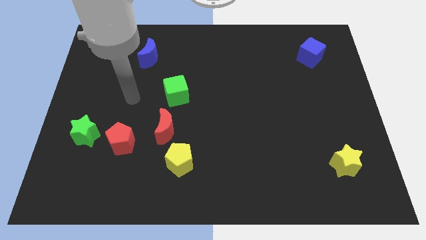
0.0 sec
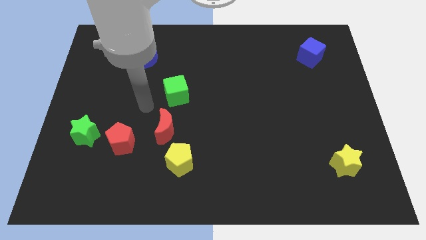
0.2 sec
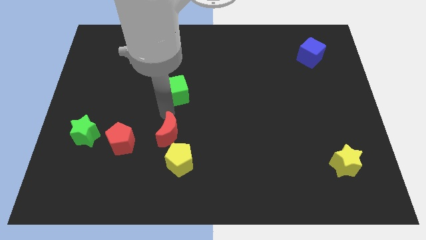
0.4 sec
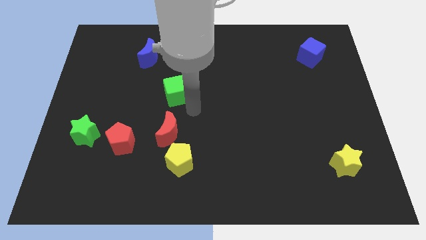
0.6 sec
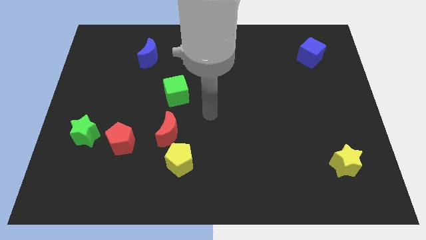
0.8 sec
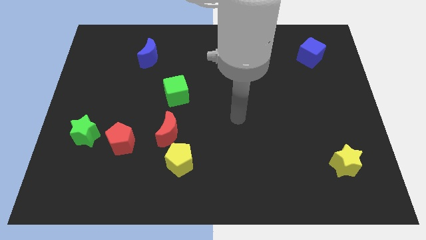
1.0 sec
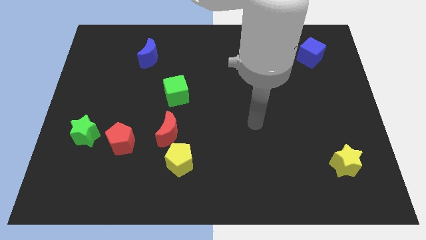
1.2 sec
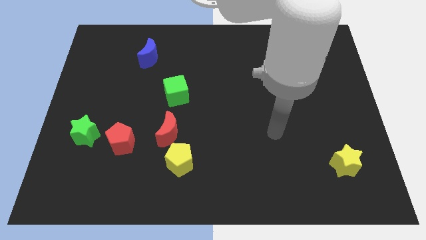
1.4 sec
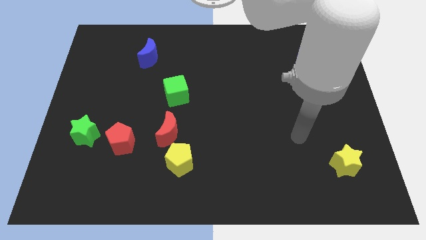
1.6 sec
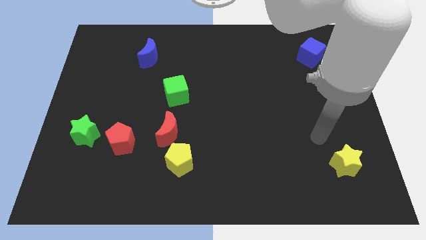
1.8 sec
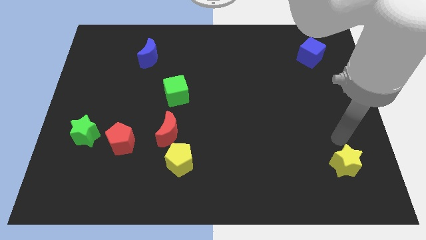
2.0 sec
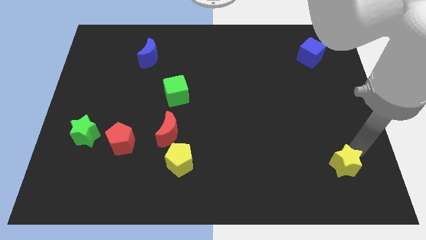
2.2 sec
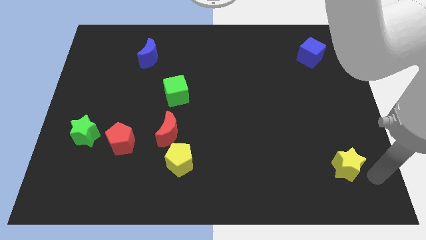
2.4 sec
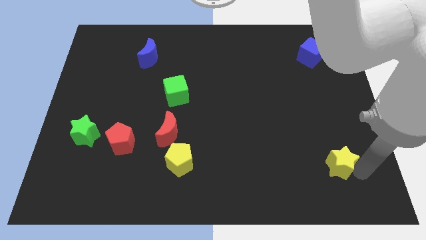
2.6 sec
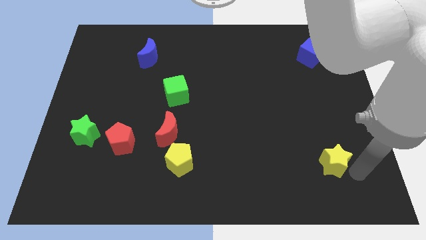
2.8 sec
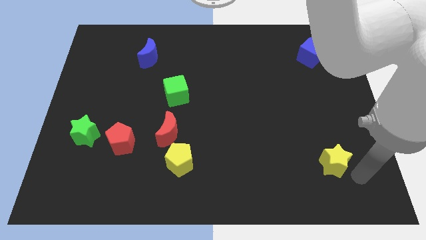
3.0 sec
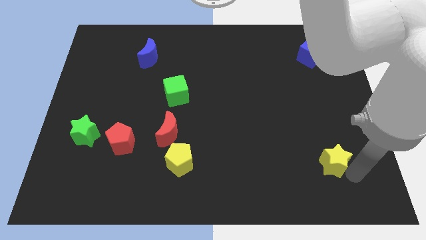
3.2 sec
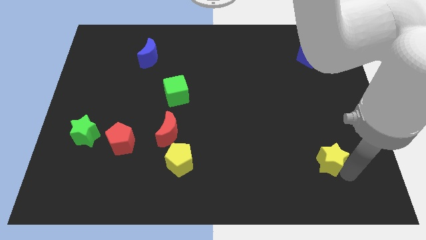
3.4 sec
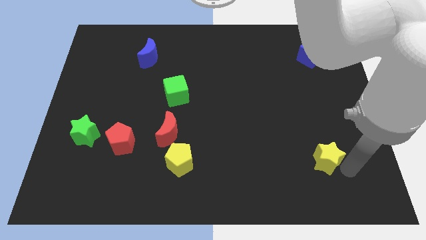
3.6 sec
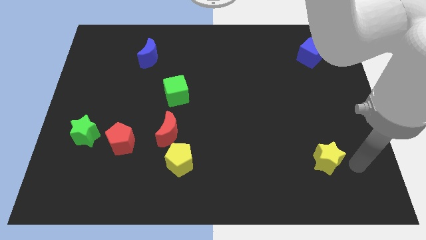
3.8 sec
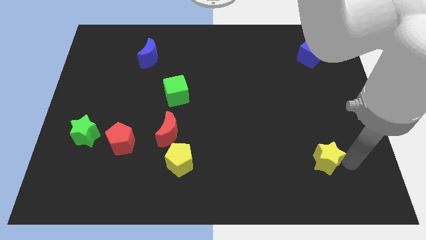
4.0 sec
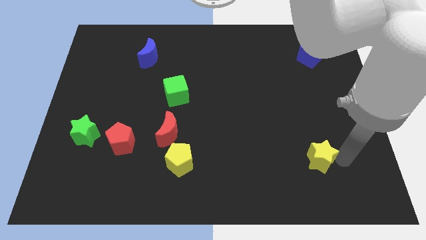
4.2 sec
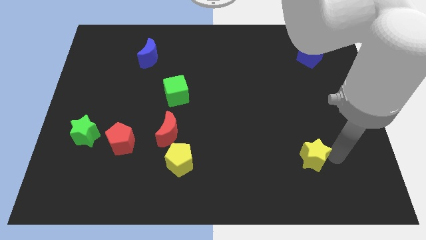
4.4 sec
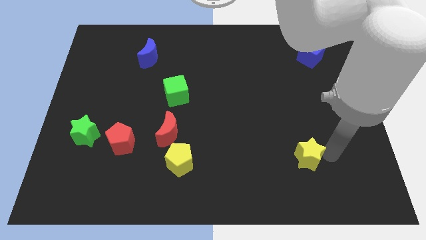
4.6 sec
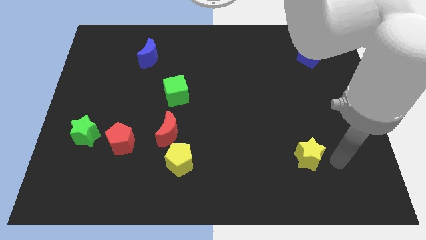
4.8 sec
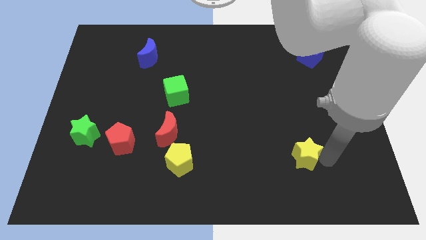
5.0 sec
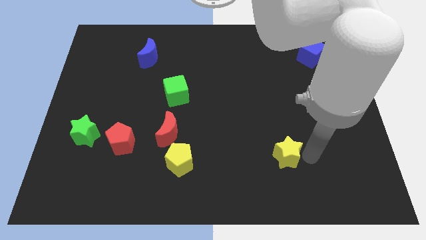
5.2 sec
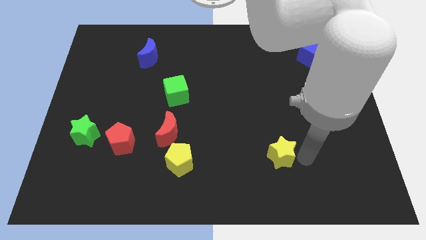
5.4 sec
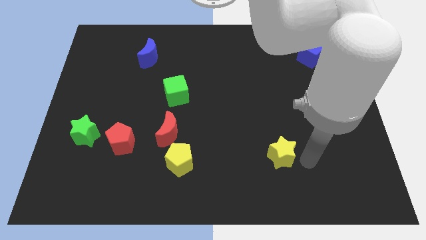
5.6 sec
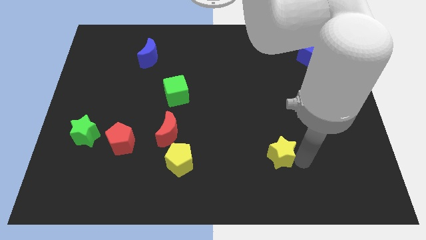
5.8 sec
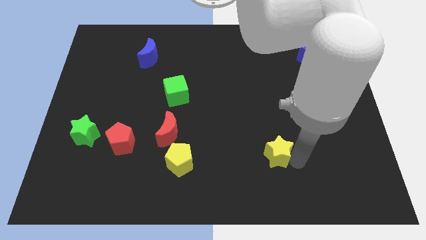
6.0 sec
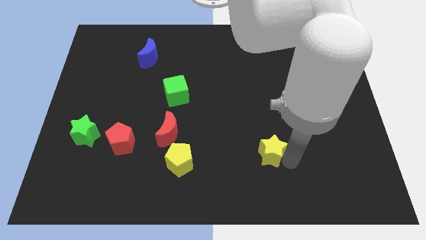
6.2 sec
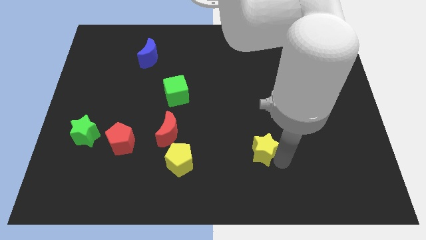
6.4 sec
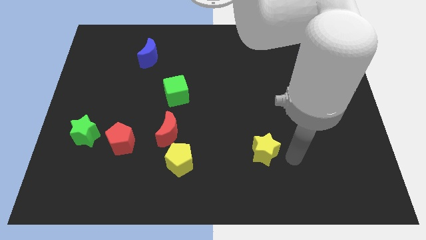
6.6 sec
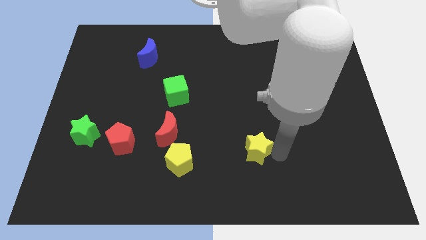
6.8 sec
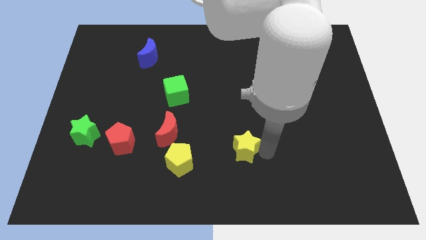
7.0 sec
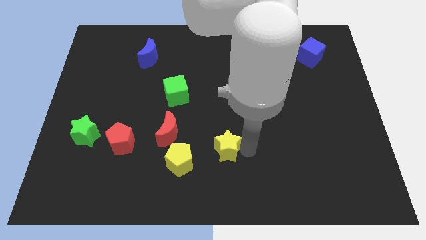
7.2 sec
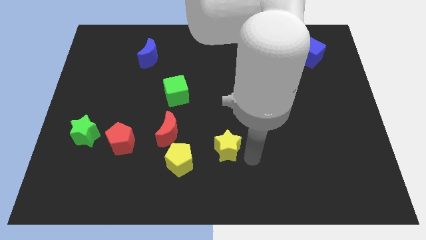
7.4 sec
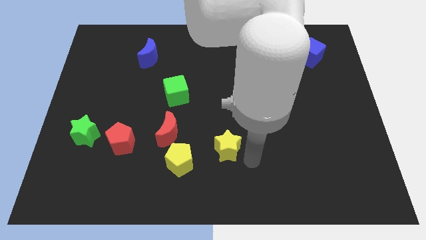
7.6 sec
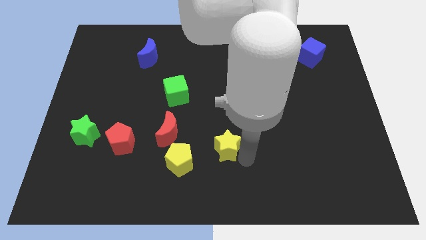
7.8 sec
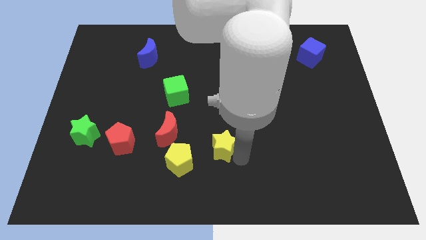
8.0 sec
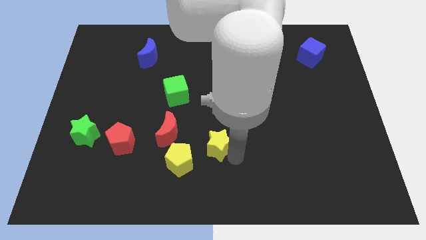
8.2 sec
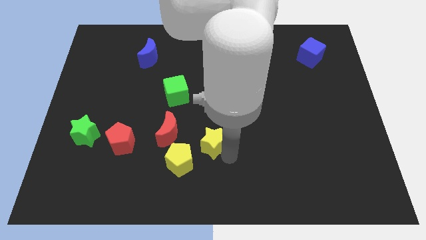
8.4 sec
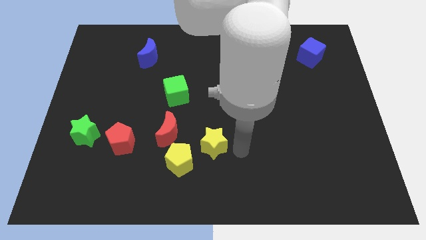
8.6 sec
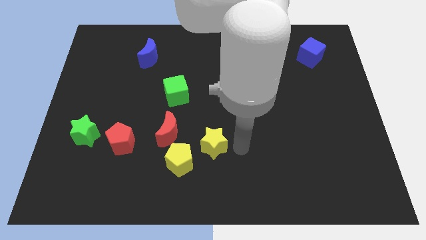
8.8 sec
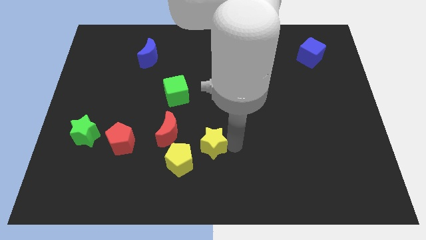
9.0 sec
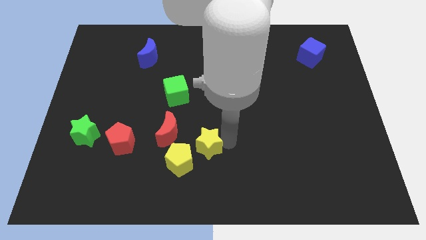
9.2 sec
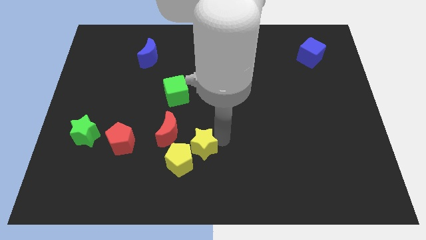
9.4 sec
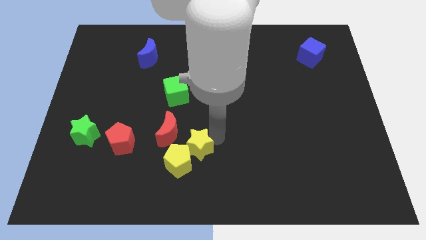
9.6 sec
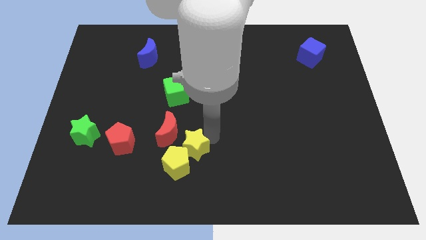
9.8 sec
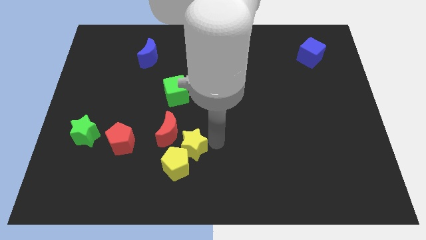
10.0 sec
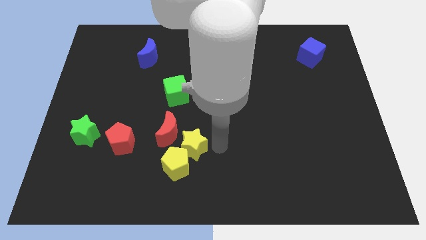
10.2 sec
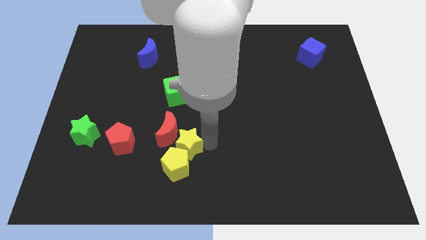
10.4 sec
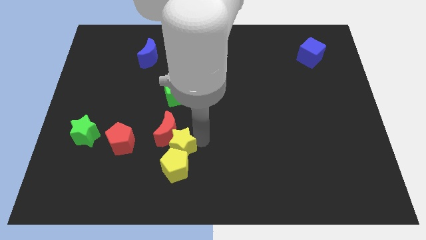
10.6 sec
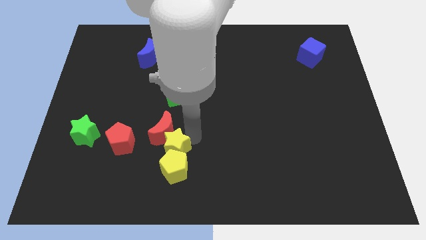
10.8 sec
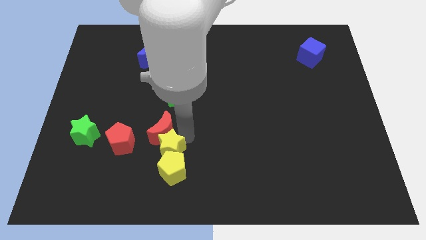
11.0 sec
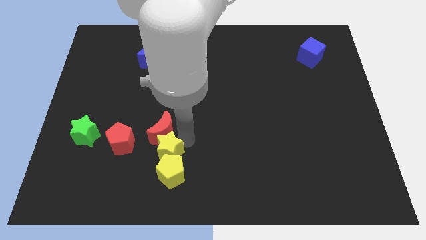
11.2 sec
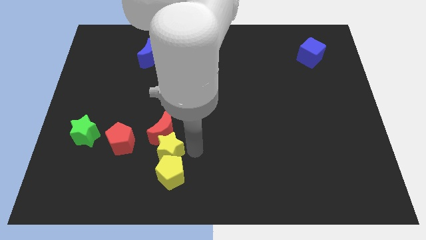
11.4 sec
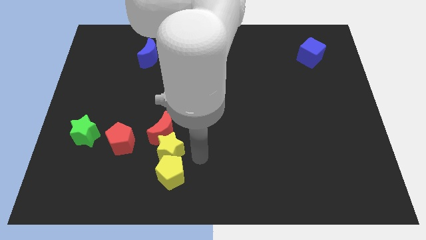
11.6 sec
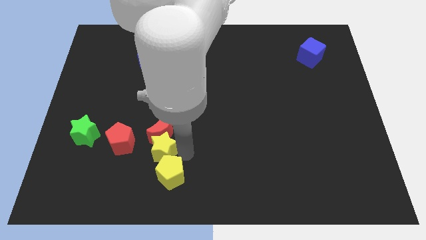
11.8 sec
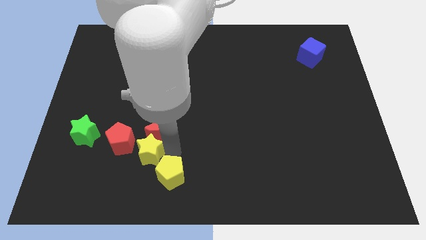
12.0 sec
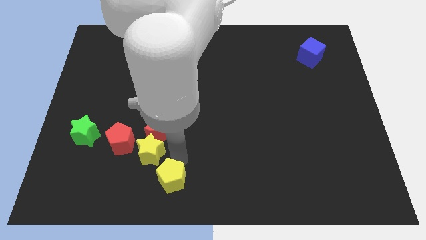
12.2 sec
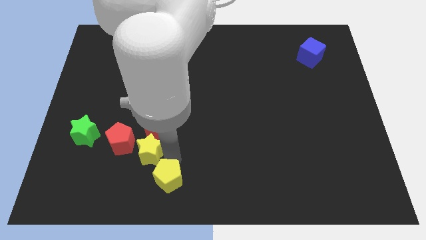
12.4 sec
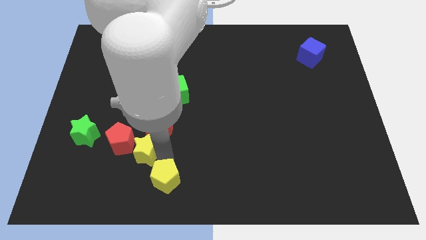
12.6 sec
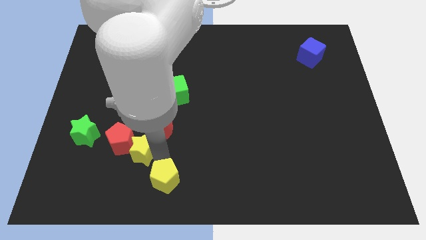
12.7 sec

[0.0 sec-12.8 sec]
slide the yellow star close to the red pentagon

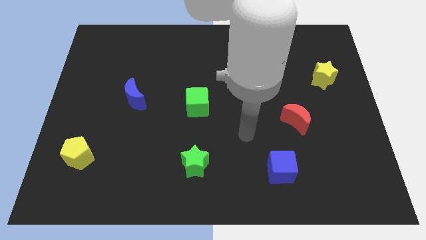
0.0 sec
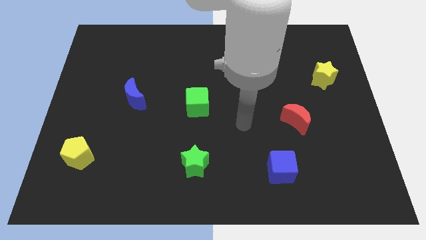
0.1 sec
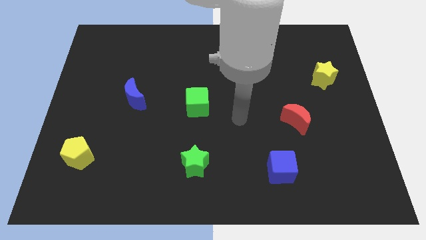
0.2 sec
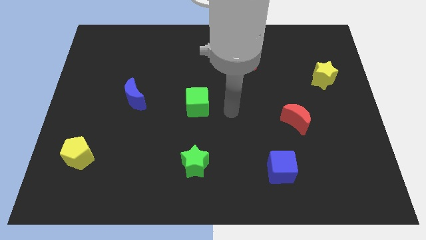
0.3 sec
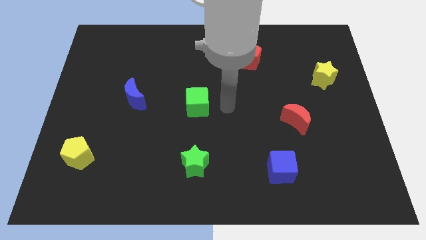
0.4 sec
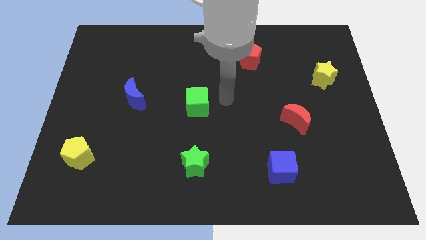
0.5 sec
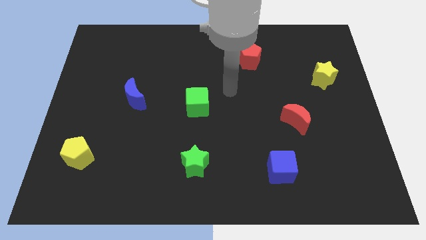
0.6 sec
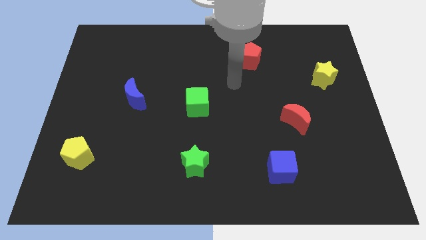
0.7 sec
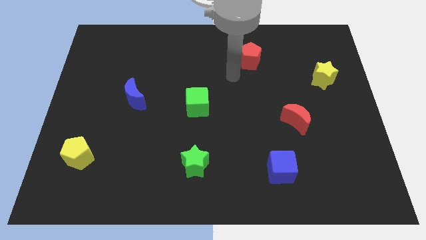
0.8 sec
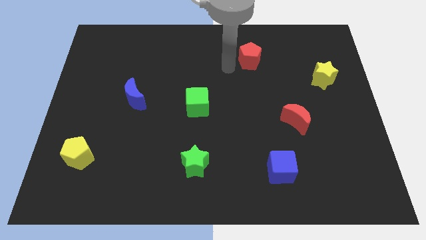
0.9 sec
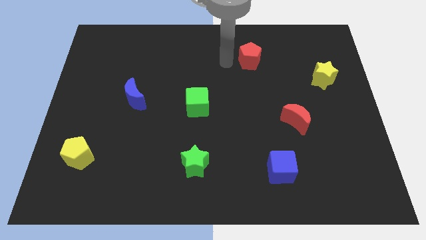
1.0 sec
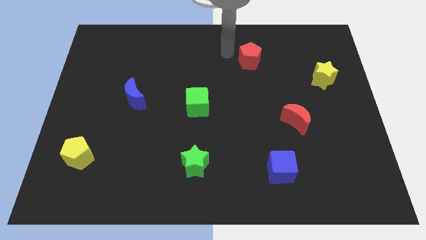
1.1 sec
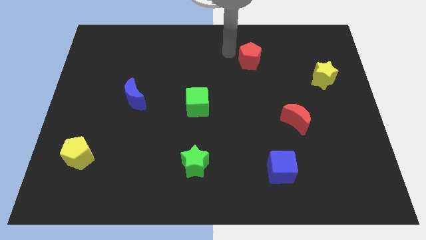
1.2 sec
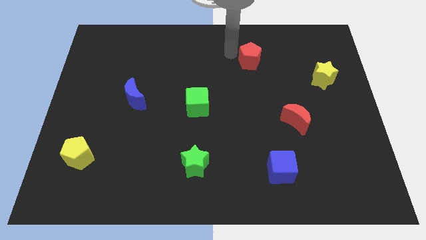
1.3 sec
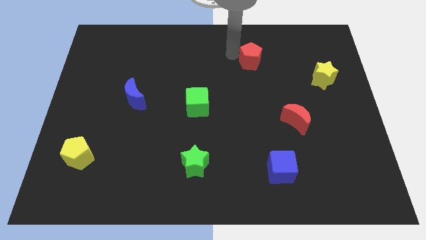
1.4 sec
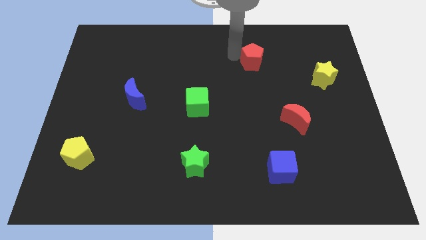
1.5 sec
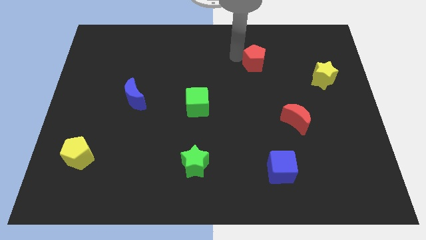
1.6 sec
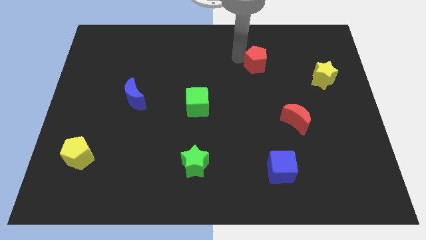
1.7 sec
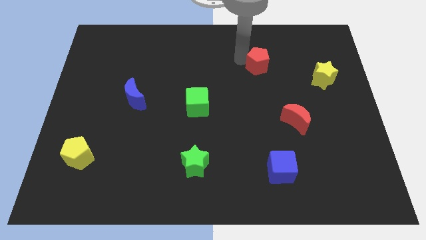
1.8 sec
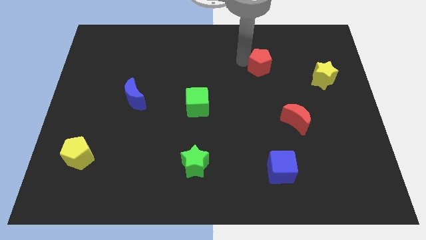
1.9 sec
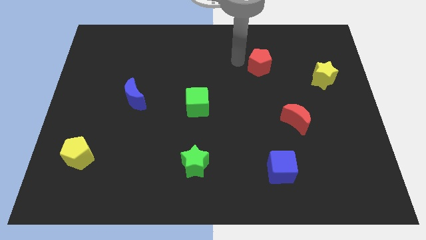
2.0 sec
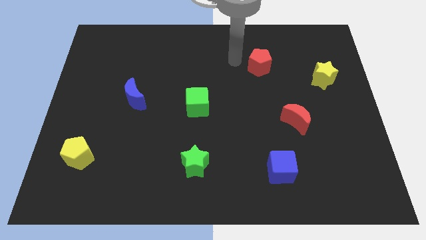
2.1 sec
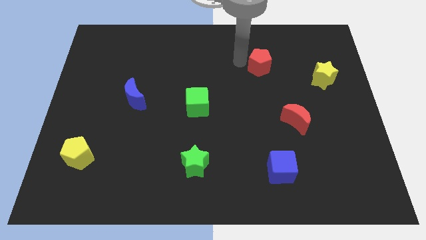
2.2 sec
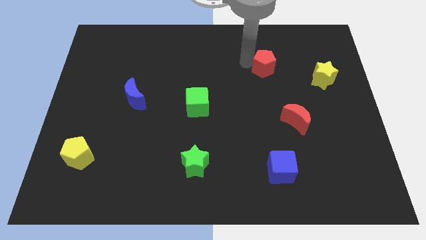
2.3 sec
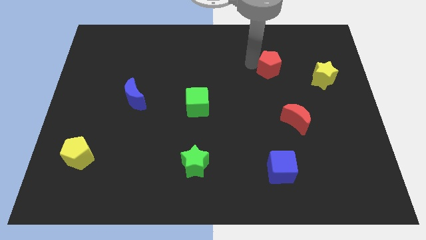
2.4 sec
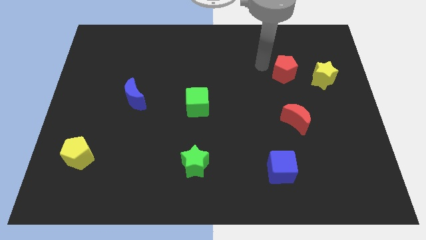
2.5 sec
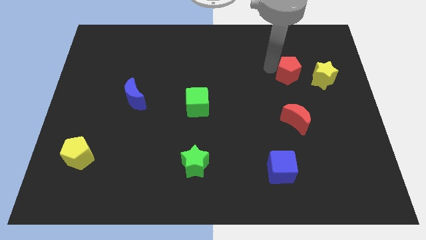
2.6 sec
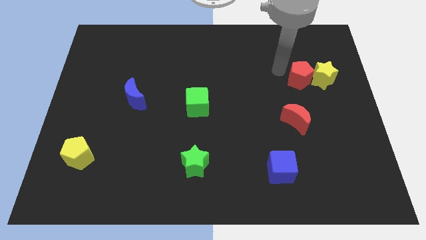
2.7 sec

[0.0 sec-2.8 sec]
slide the red pentagon next to the yellow star
